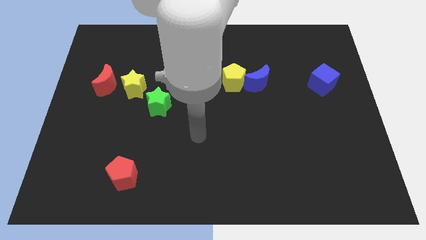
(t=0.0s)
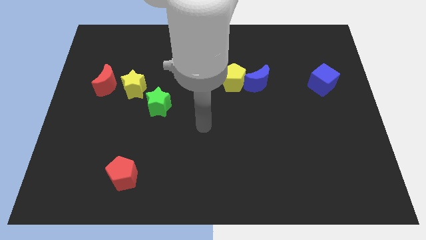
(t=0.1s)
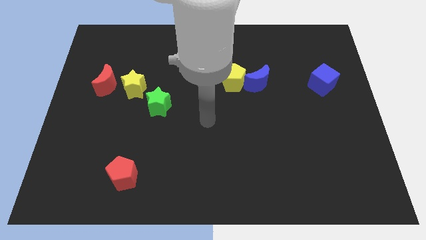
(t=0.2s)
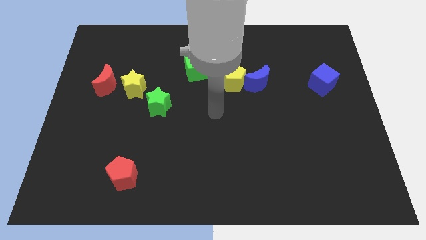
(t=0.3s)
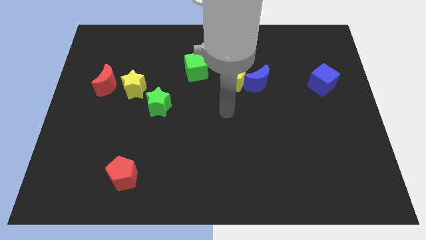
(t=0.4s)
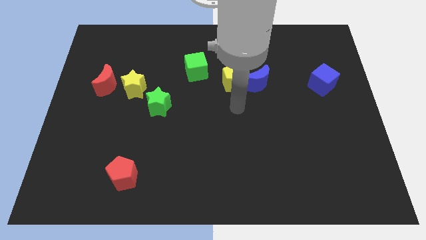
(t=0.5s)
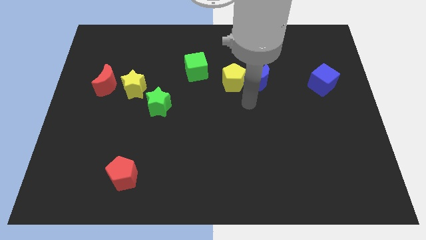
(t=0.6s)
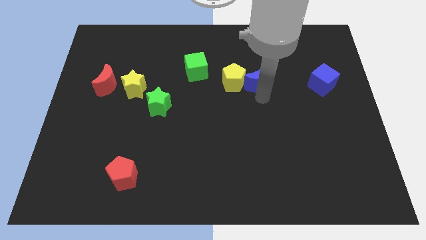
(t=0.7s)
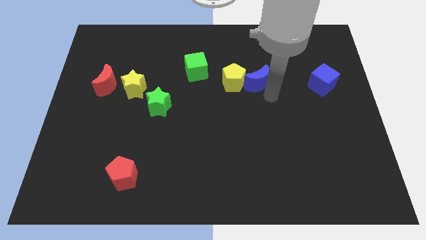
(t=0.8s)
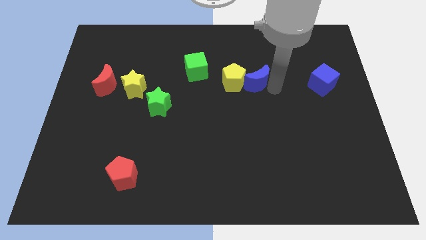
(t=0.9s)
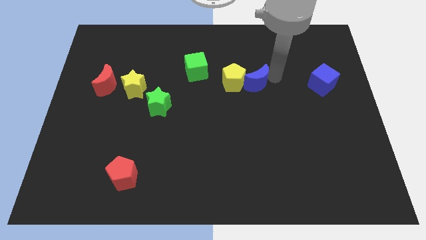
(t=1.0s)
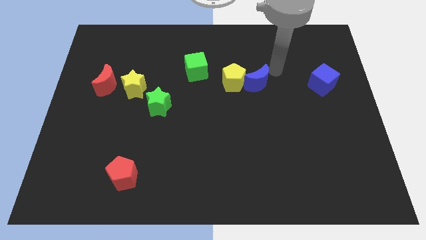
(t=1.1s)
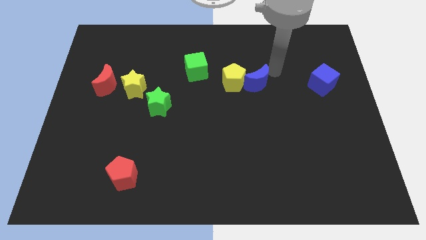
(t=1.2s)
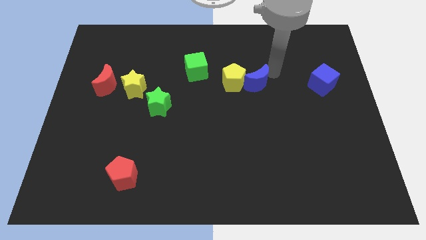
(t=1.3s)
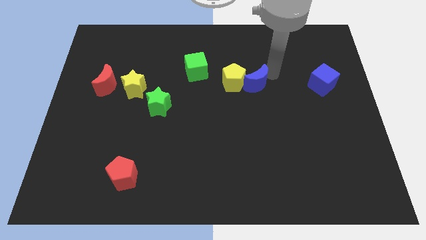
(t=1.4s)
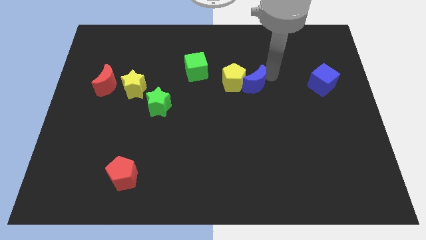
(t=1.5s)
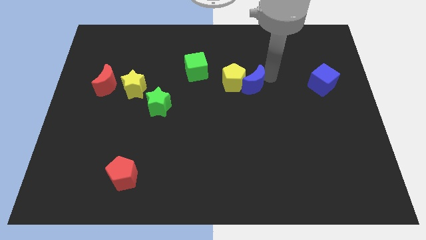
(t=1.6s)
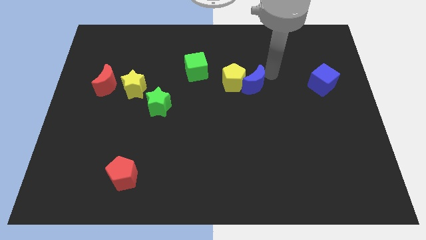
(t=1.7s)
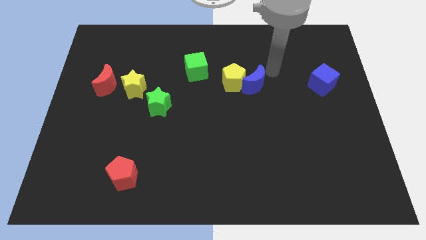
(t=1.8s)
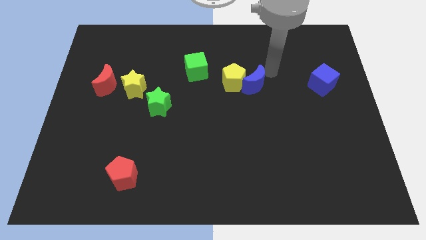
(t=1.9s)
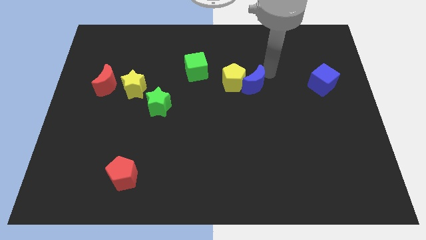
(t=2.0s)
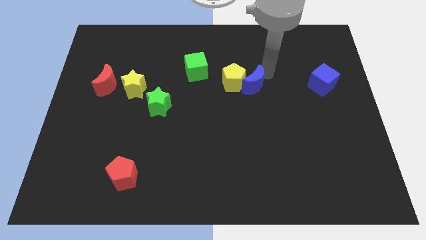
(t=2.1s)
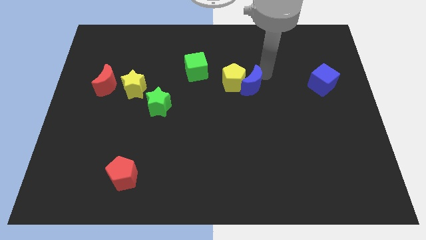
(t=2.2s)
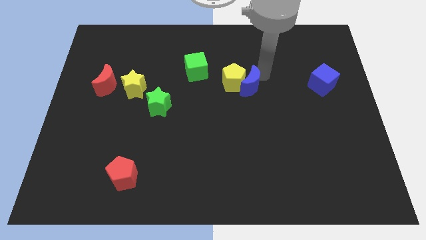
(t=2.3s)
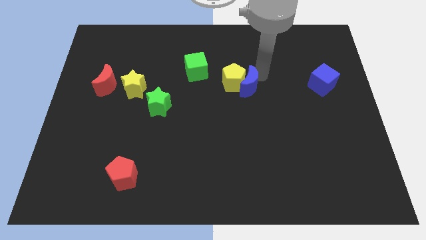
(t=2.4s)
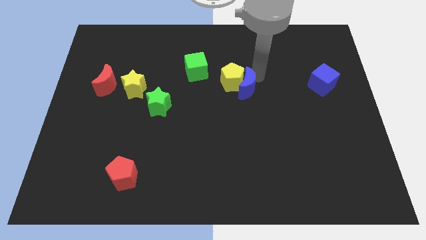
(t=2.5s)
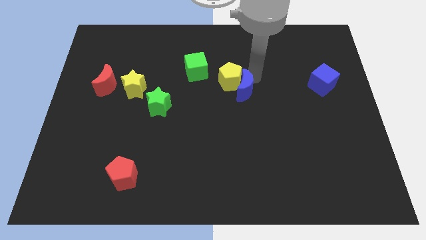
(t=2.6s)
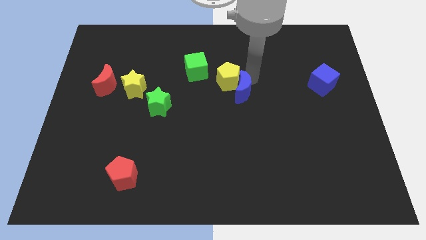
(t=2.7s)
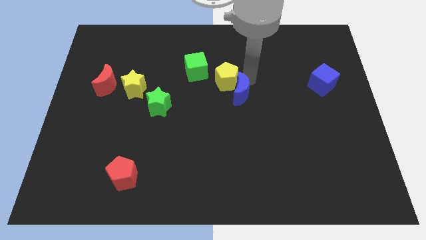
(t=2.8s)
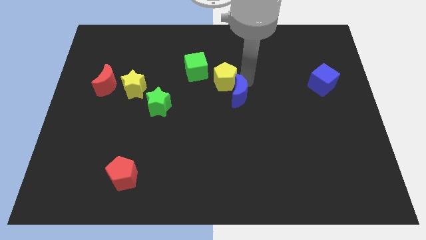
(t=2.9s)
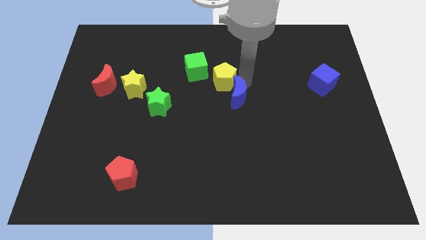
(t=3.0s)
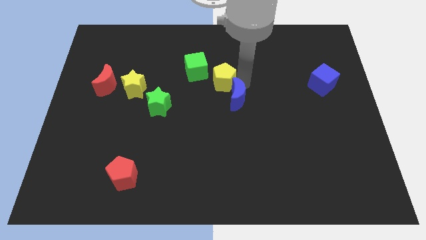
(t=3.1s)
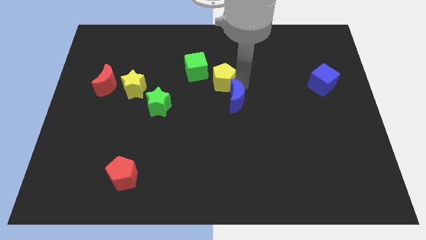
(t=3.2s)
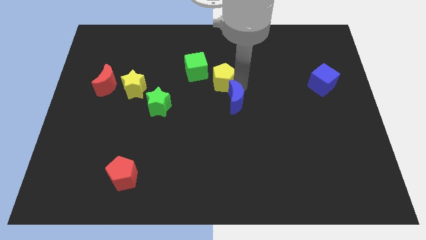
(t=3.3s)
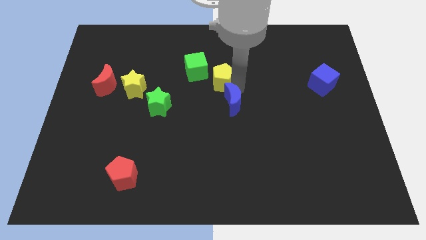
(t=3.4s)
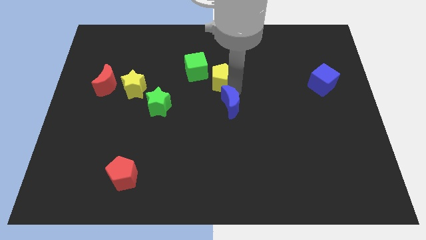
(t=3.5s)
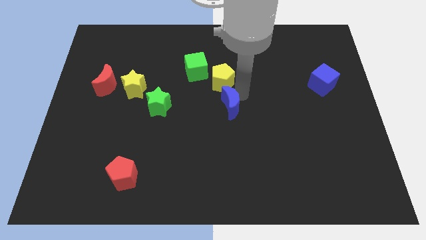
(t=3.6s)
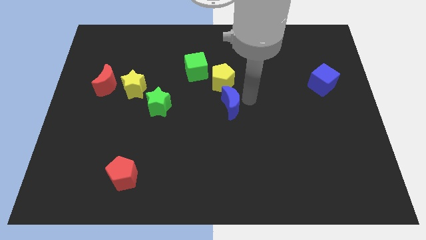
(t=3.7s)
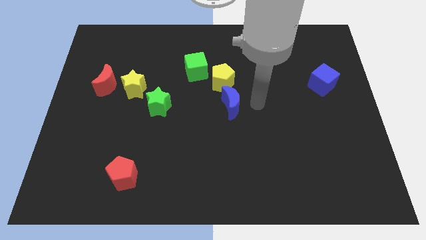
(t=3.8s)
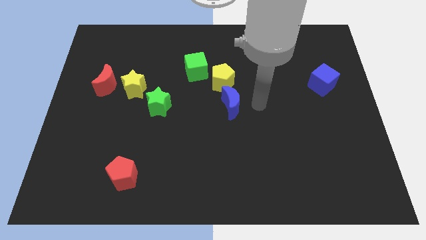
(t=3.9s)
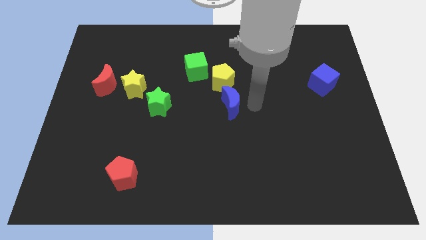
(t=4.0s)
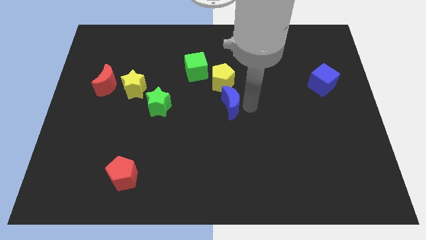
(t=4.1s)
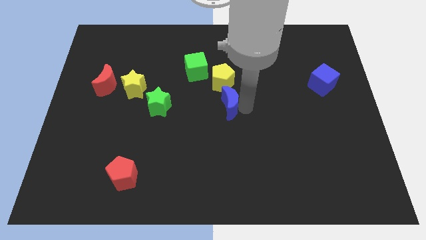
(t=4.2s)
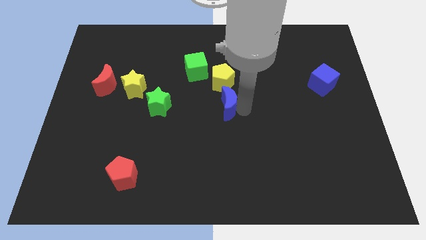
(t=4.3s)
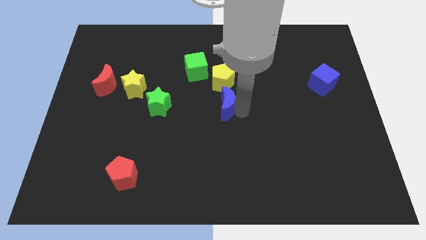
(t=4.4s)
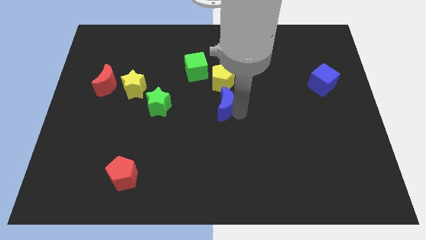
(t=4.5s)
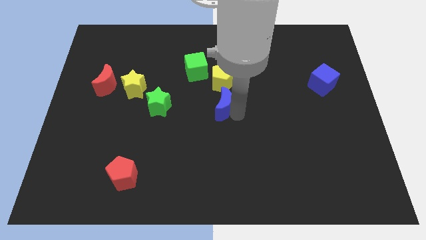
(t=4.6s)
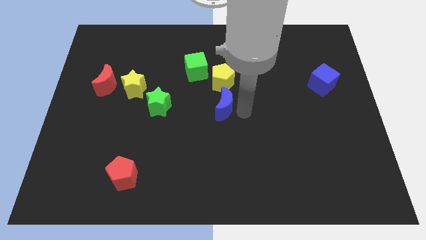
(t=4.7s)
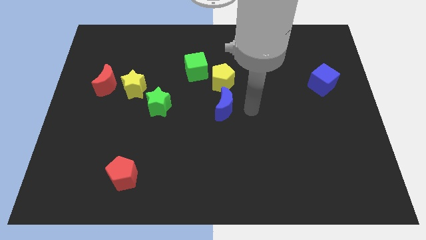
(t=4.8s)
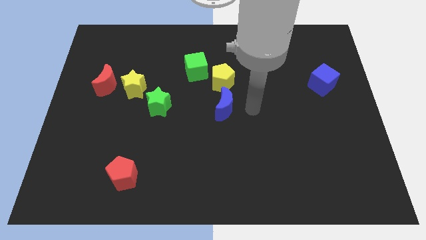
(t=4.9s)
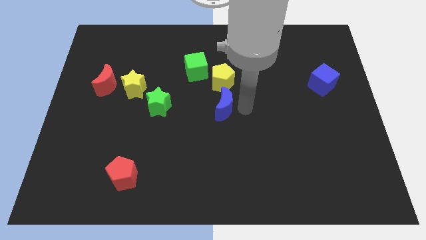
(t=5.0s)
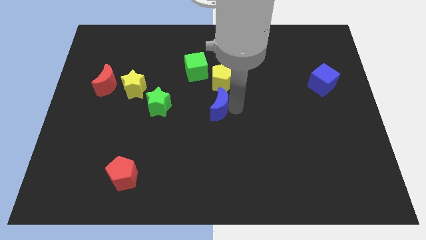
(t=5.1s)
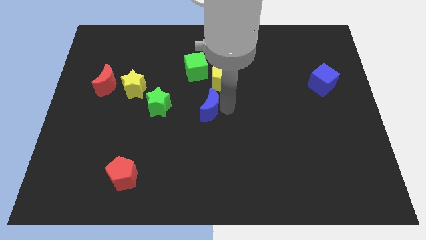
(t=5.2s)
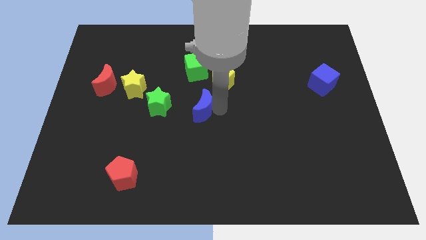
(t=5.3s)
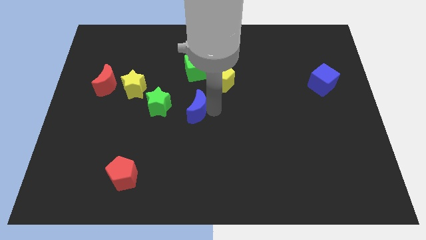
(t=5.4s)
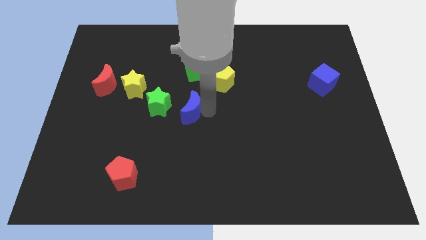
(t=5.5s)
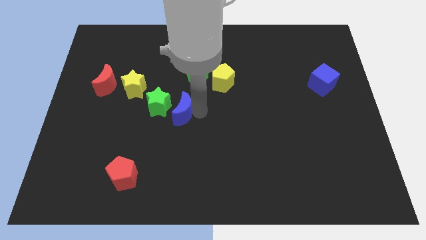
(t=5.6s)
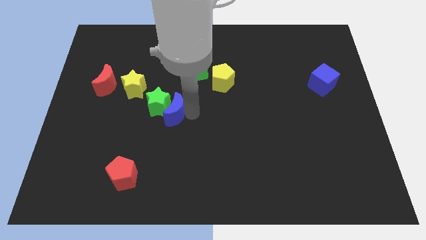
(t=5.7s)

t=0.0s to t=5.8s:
slide the blue moon close to the green star

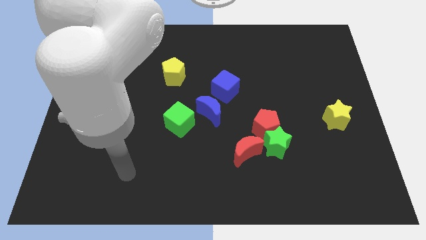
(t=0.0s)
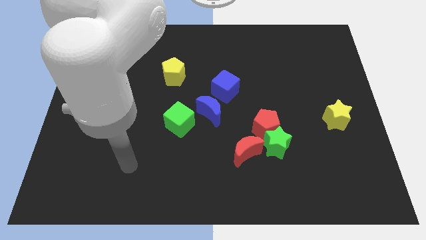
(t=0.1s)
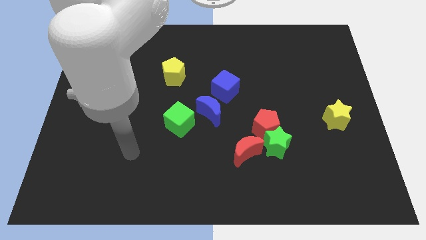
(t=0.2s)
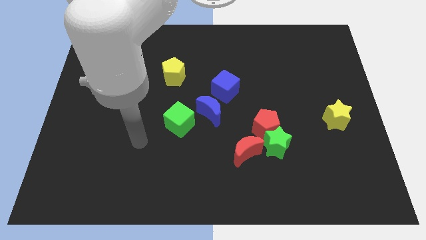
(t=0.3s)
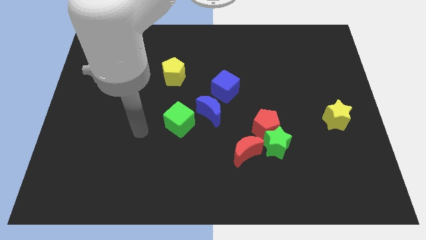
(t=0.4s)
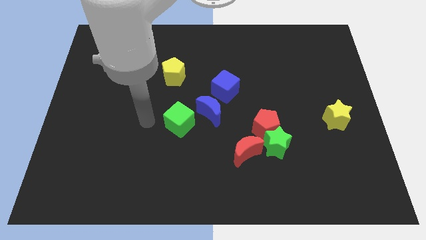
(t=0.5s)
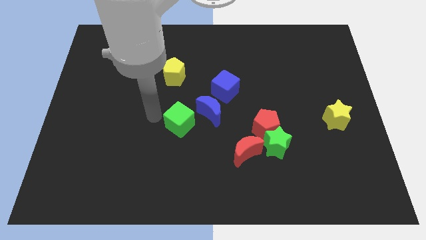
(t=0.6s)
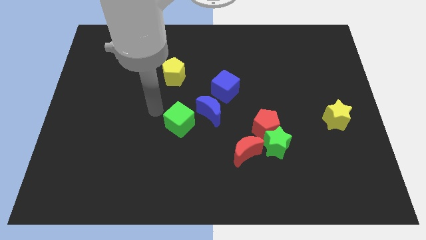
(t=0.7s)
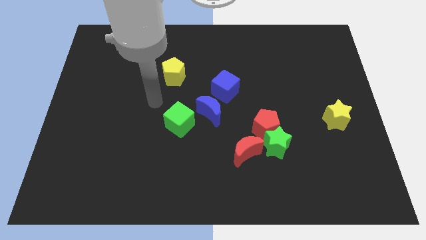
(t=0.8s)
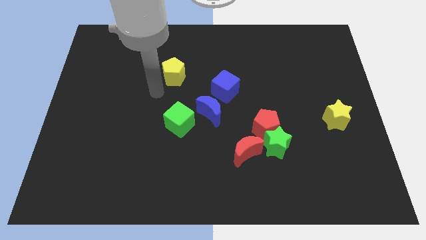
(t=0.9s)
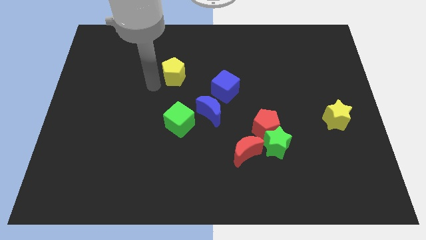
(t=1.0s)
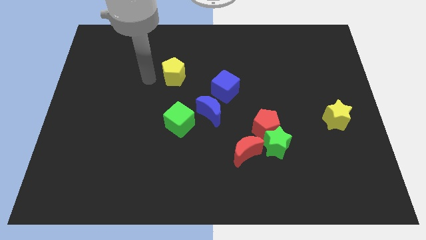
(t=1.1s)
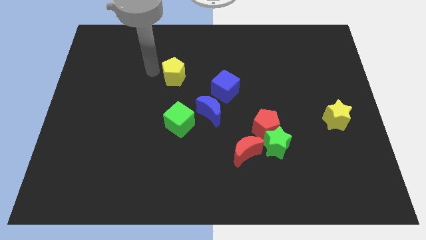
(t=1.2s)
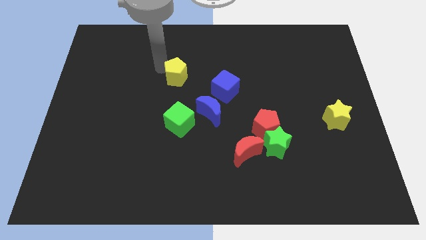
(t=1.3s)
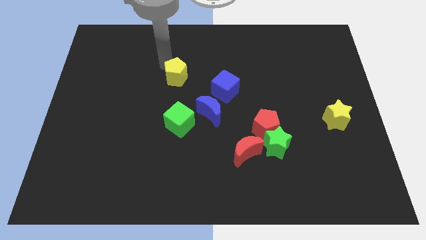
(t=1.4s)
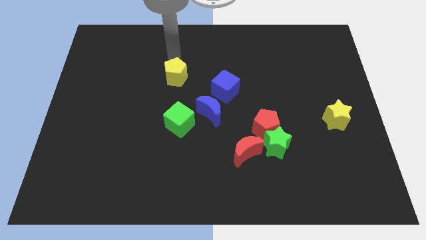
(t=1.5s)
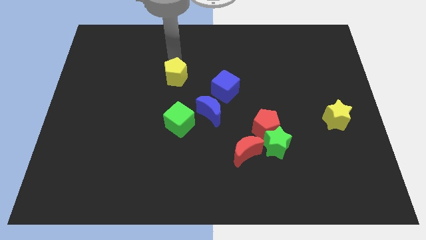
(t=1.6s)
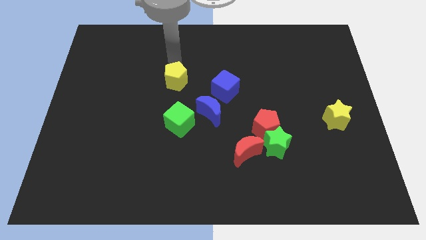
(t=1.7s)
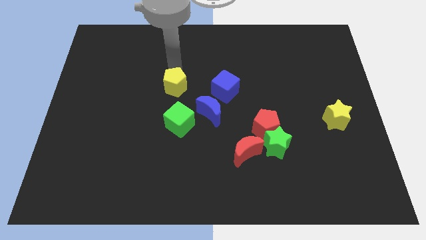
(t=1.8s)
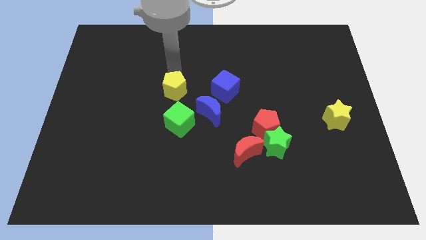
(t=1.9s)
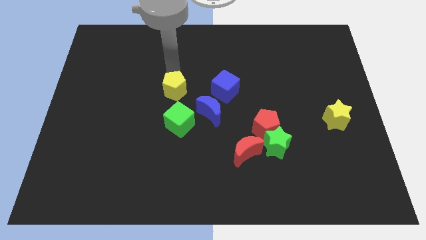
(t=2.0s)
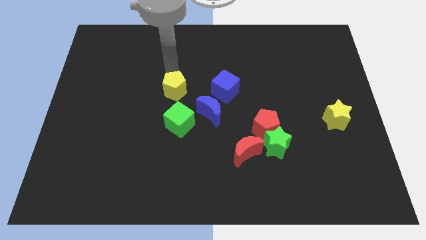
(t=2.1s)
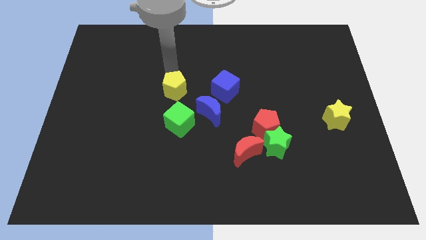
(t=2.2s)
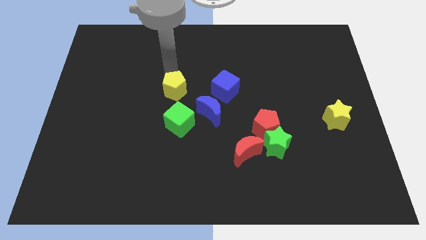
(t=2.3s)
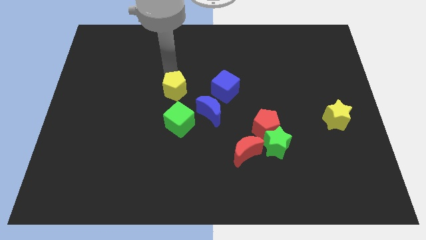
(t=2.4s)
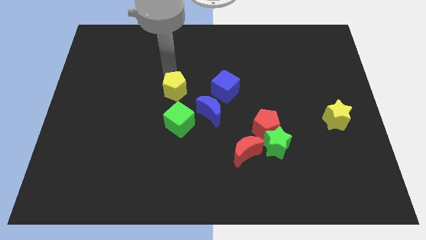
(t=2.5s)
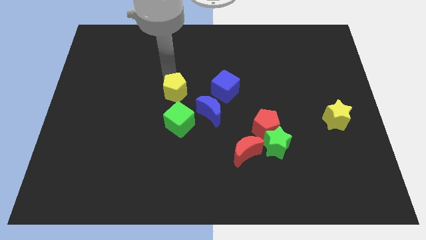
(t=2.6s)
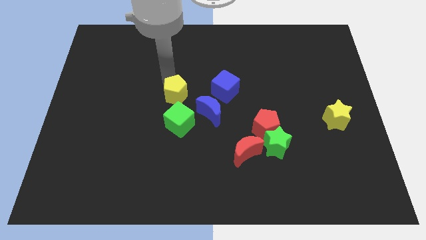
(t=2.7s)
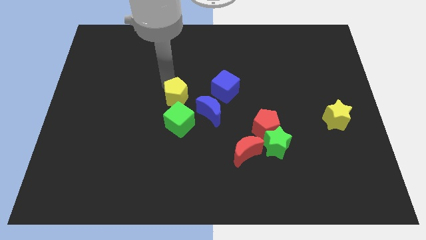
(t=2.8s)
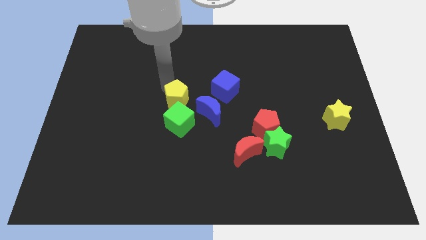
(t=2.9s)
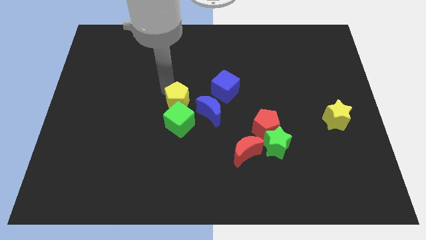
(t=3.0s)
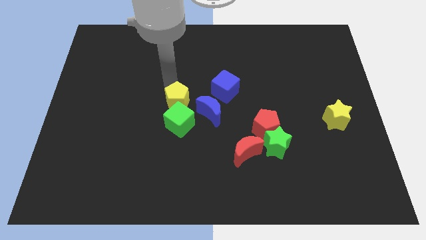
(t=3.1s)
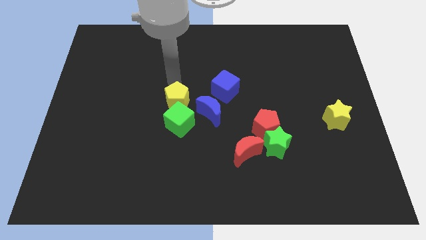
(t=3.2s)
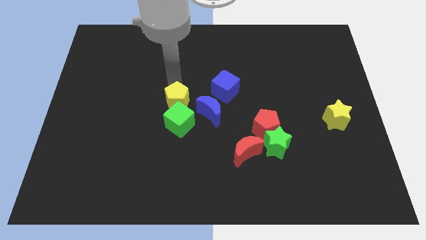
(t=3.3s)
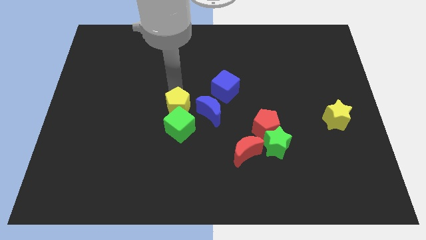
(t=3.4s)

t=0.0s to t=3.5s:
move the yellow pentagon close to the green cube
